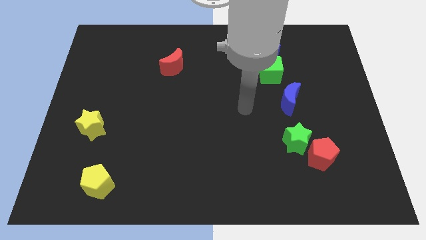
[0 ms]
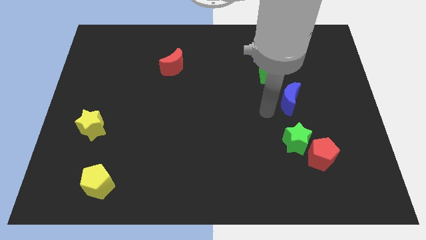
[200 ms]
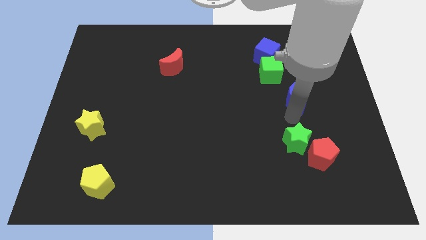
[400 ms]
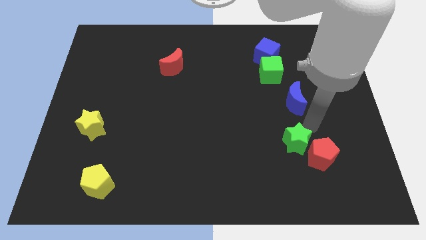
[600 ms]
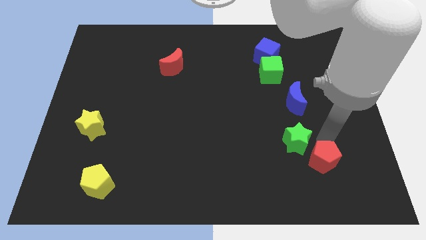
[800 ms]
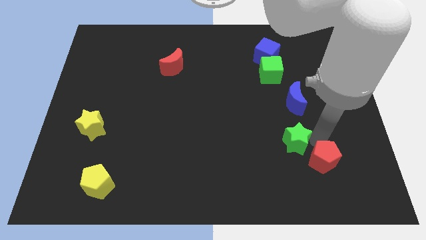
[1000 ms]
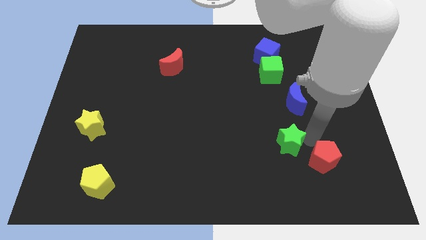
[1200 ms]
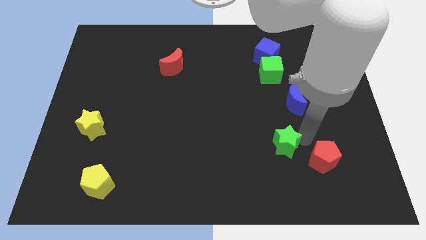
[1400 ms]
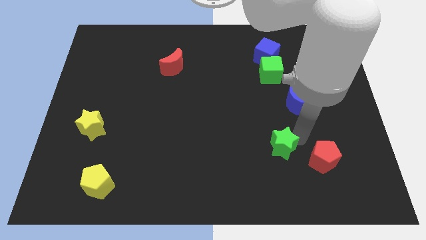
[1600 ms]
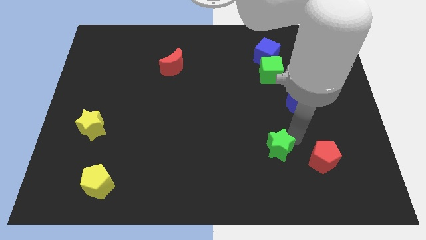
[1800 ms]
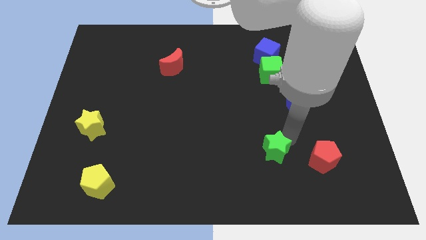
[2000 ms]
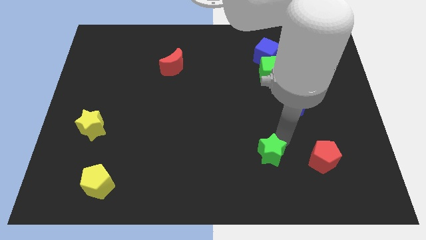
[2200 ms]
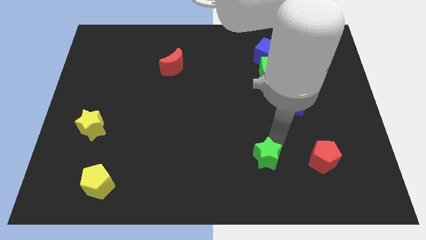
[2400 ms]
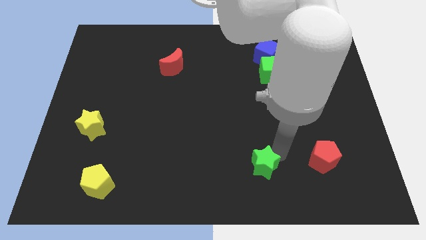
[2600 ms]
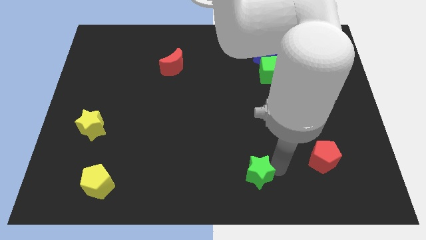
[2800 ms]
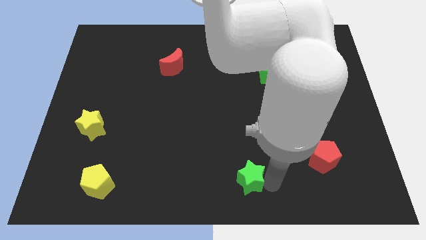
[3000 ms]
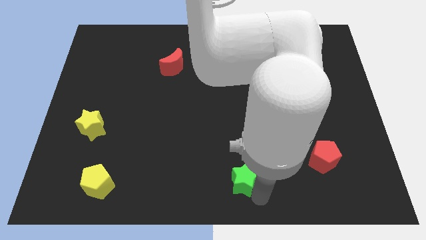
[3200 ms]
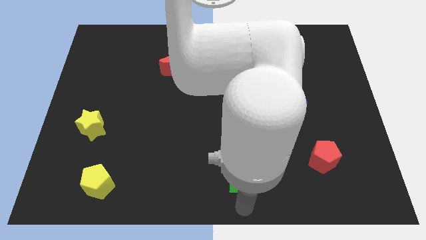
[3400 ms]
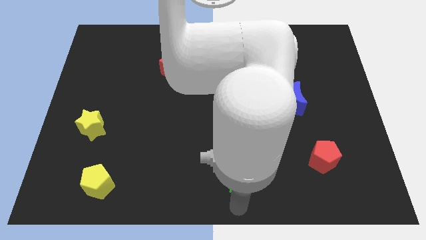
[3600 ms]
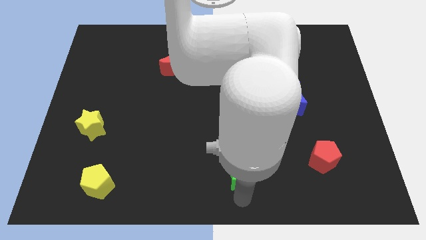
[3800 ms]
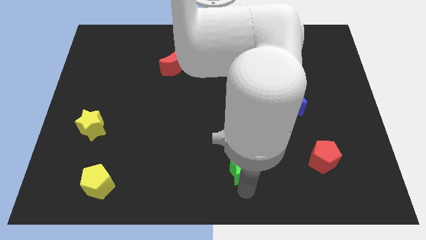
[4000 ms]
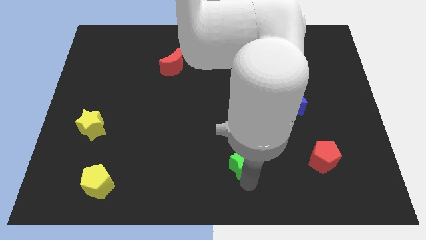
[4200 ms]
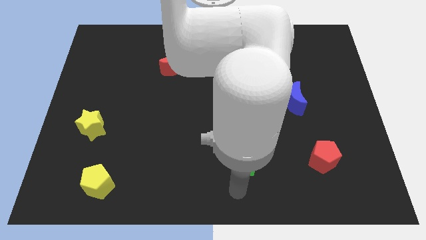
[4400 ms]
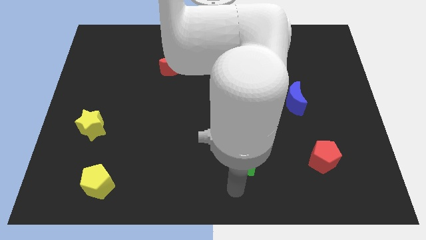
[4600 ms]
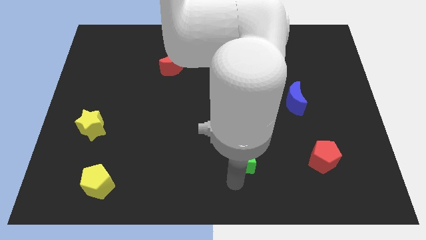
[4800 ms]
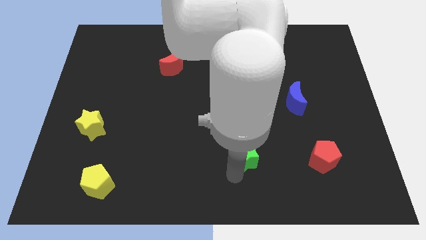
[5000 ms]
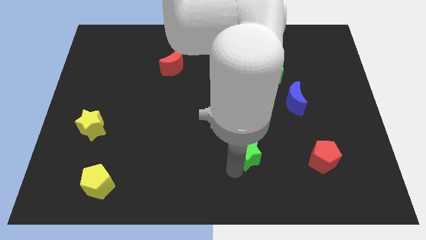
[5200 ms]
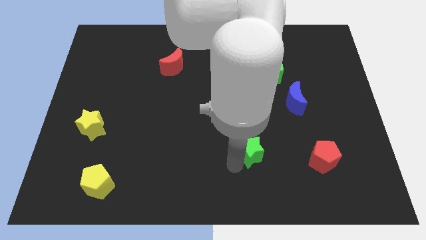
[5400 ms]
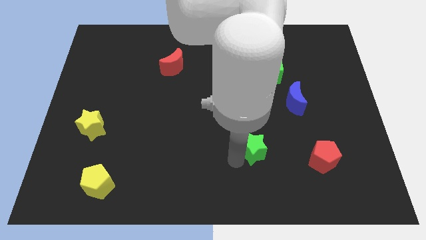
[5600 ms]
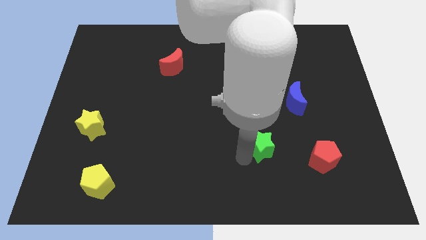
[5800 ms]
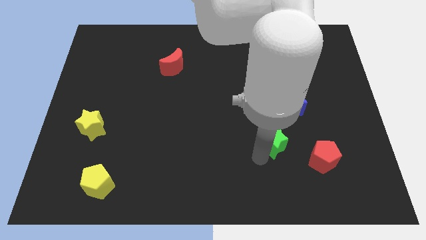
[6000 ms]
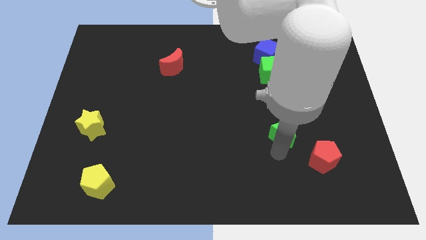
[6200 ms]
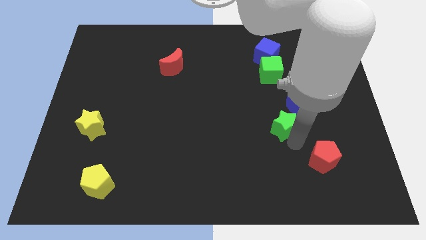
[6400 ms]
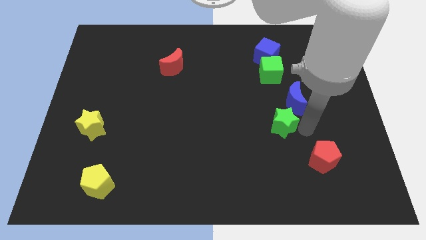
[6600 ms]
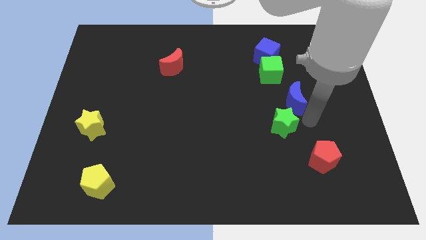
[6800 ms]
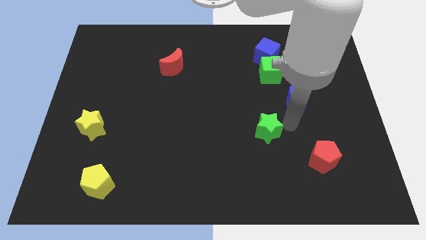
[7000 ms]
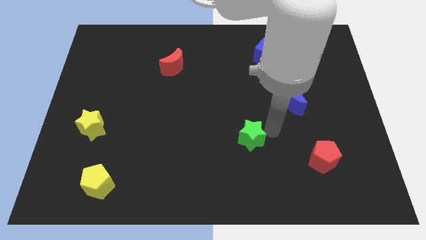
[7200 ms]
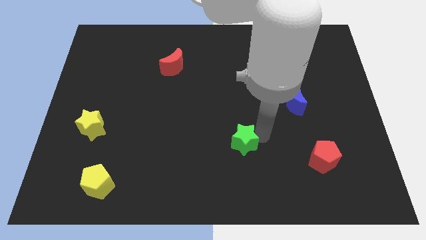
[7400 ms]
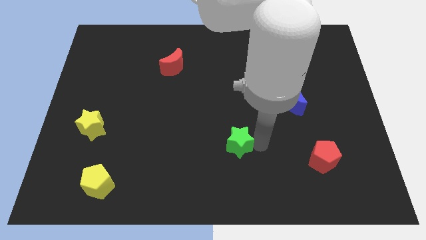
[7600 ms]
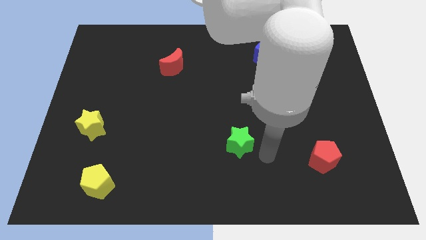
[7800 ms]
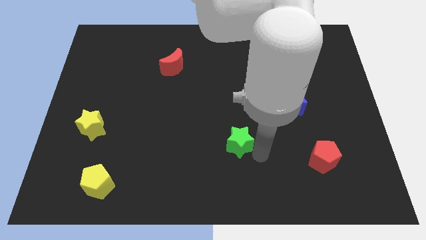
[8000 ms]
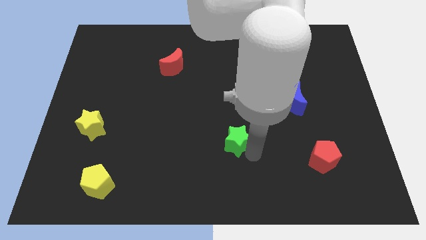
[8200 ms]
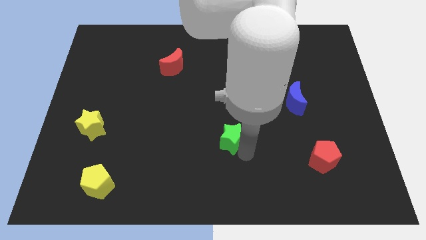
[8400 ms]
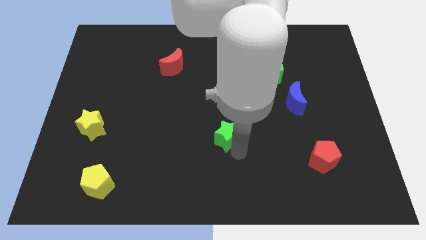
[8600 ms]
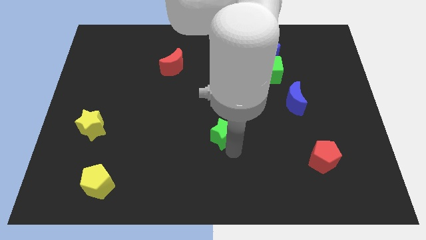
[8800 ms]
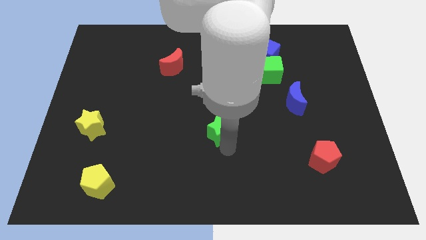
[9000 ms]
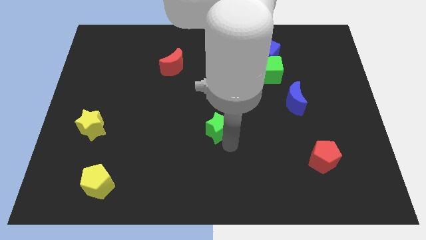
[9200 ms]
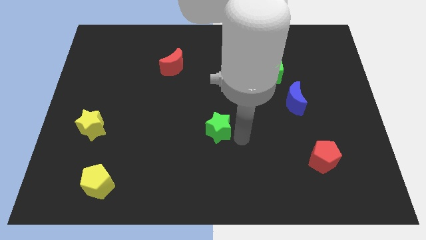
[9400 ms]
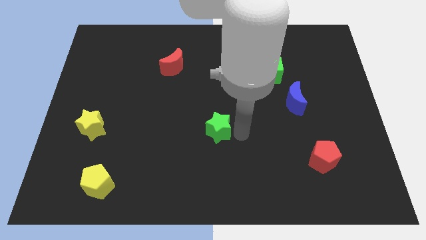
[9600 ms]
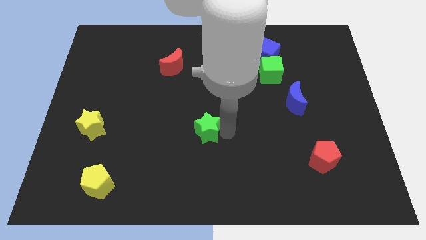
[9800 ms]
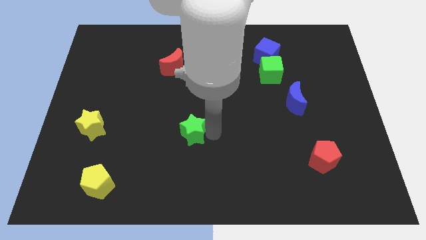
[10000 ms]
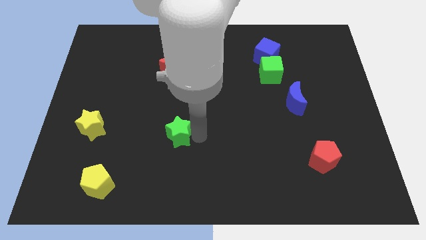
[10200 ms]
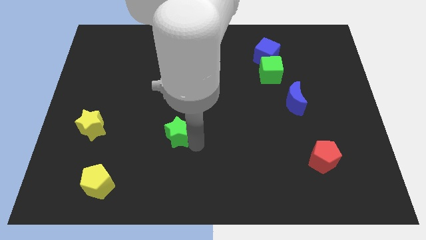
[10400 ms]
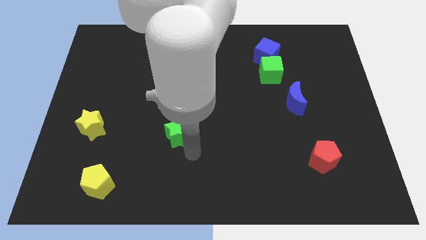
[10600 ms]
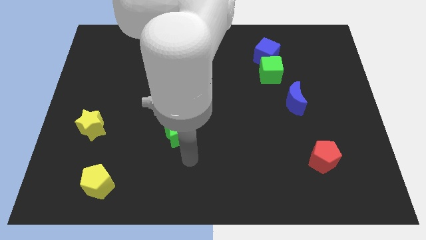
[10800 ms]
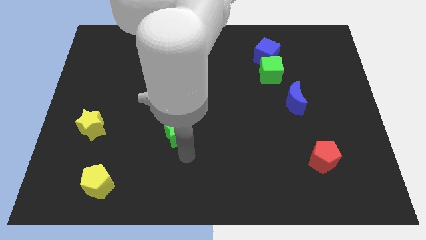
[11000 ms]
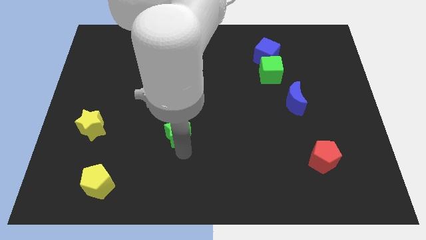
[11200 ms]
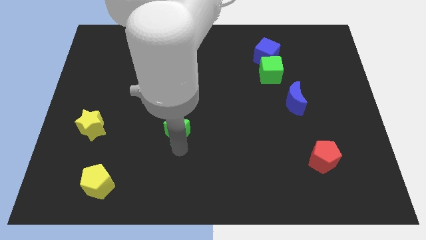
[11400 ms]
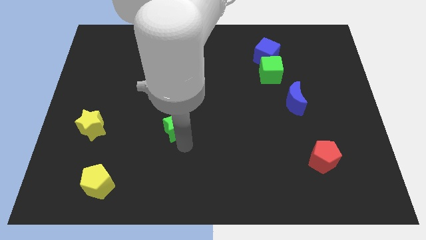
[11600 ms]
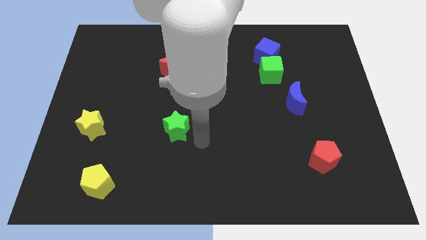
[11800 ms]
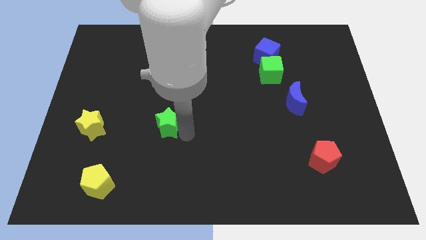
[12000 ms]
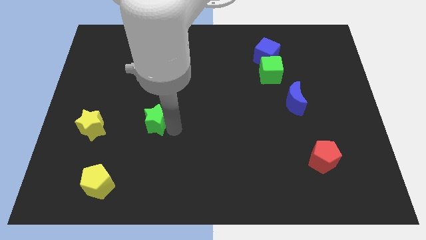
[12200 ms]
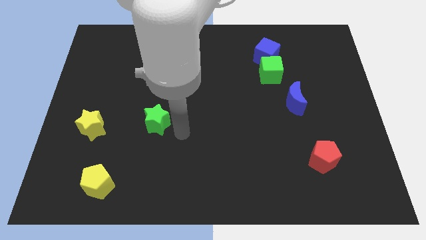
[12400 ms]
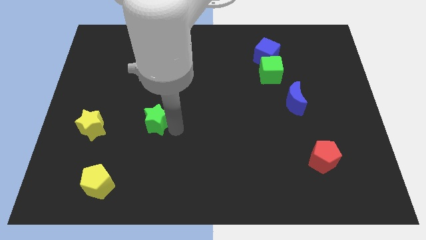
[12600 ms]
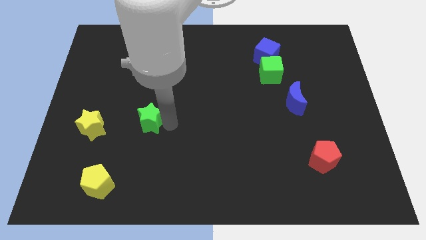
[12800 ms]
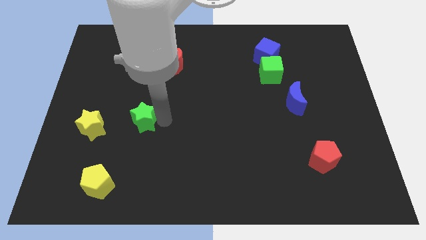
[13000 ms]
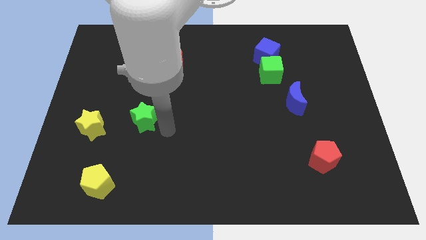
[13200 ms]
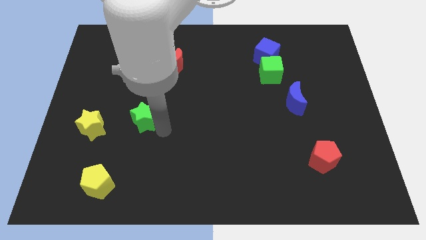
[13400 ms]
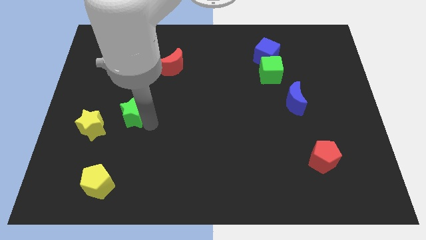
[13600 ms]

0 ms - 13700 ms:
put the green star to the top right side of the yellow star

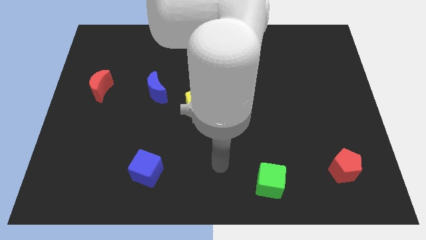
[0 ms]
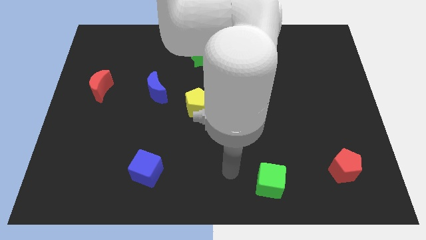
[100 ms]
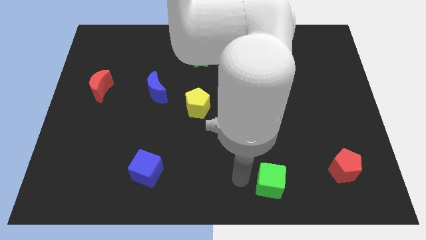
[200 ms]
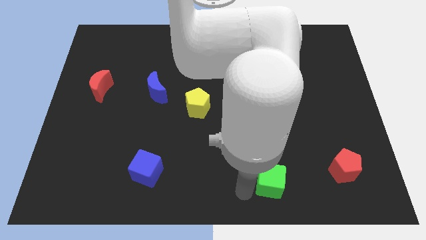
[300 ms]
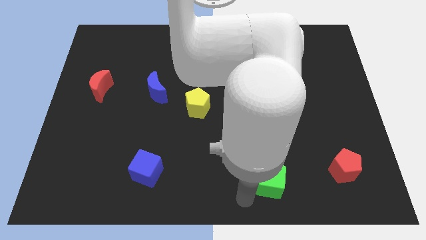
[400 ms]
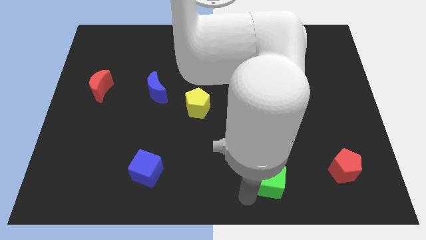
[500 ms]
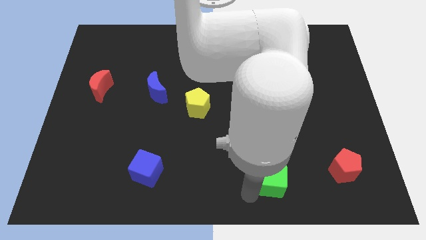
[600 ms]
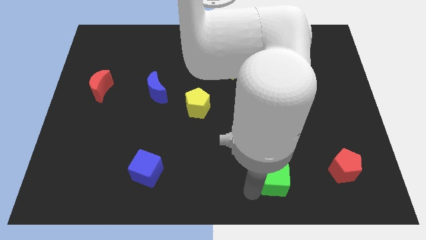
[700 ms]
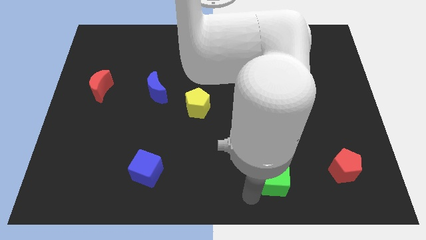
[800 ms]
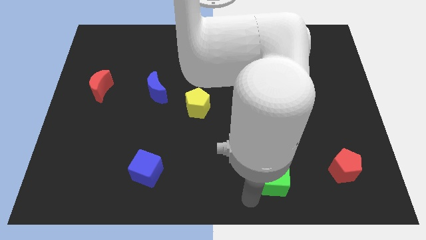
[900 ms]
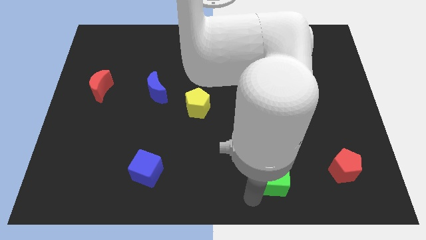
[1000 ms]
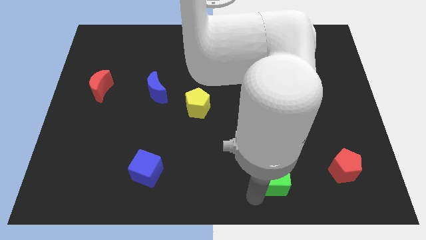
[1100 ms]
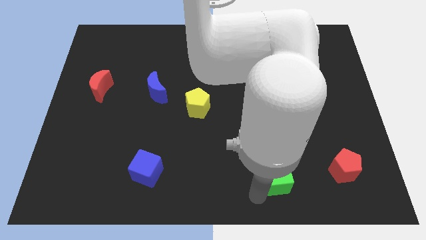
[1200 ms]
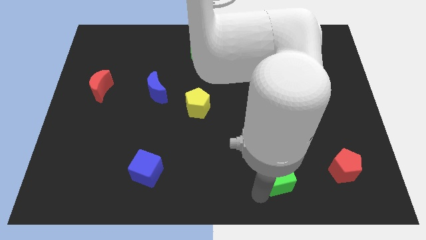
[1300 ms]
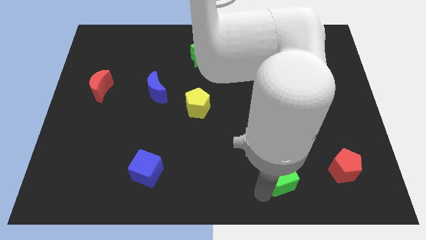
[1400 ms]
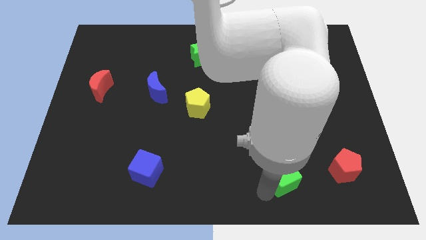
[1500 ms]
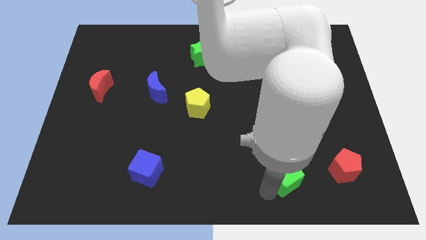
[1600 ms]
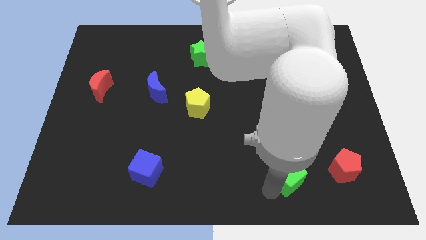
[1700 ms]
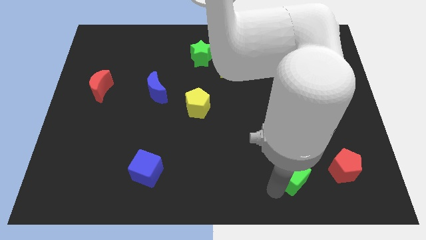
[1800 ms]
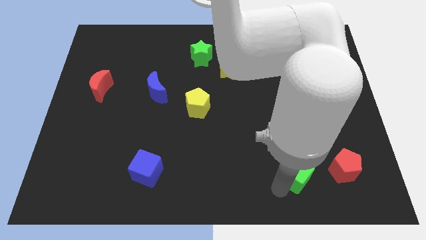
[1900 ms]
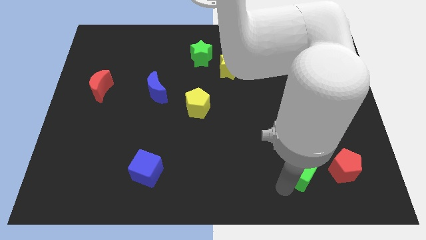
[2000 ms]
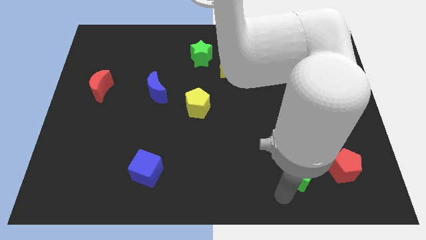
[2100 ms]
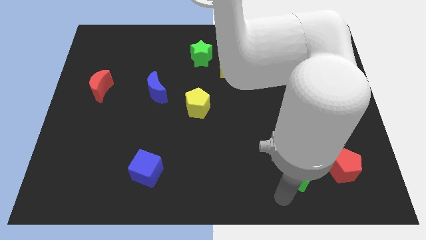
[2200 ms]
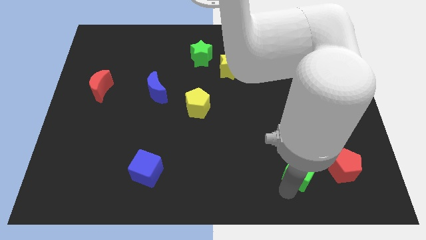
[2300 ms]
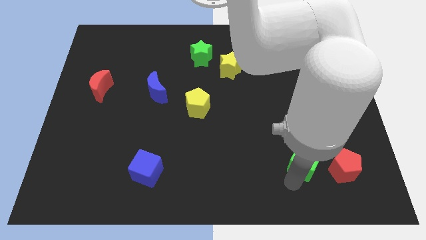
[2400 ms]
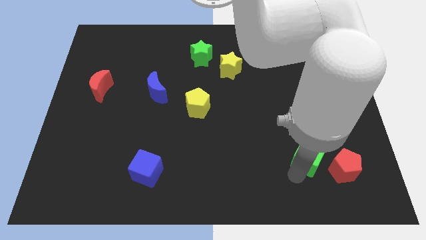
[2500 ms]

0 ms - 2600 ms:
put the green cube diagonally up and to the left of the red pentagon
